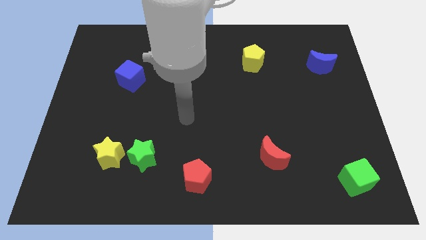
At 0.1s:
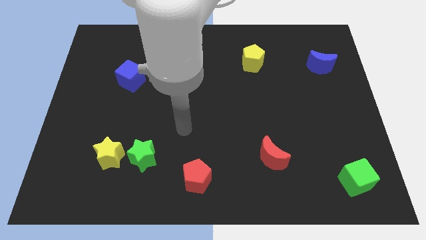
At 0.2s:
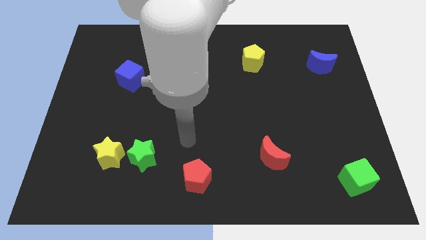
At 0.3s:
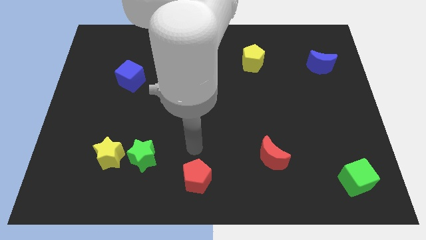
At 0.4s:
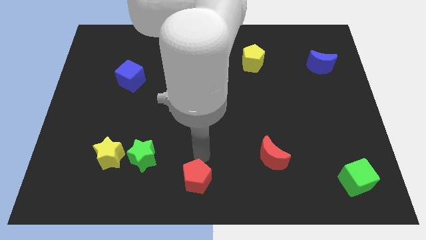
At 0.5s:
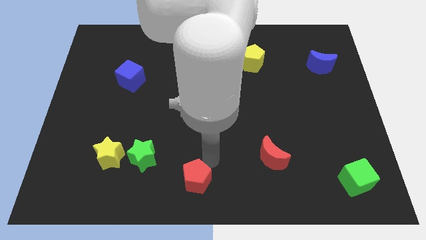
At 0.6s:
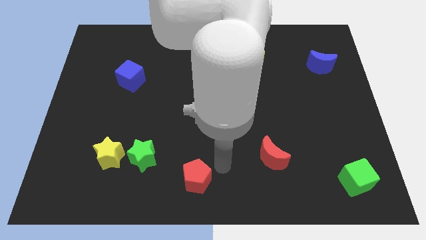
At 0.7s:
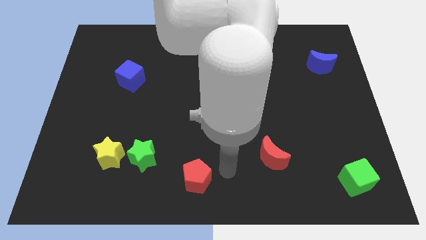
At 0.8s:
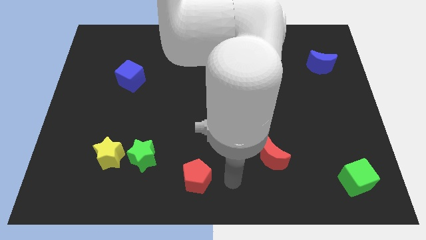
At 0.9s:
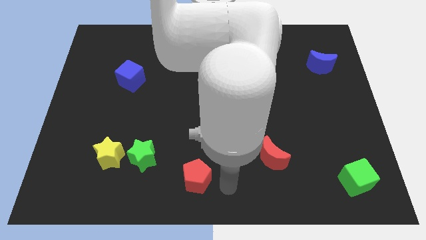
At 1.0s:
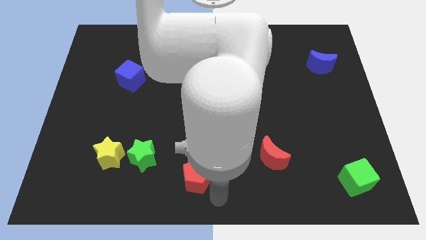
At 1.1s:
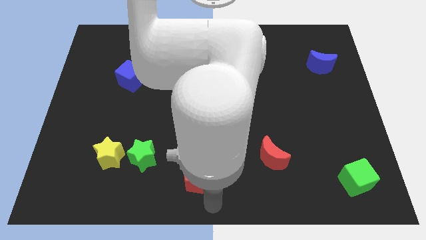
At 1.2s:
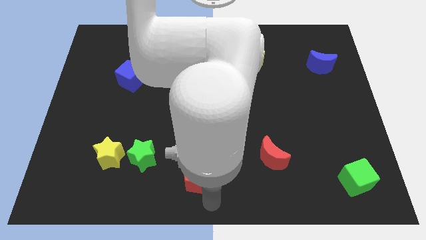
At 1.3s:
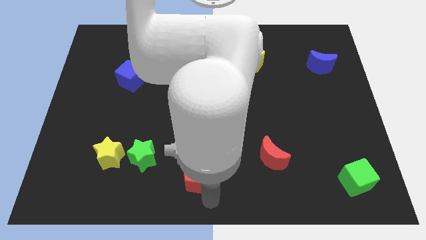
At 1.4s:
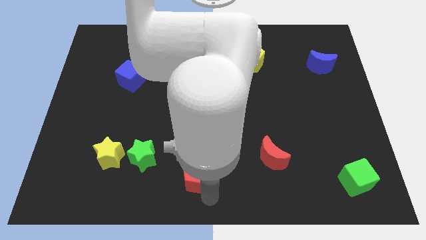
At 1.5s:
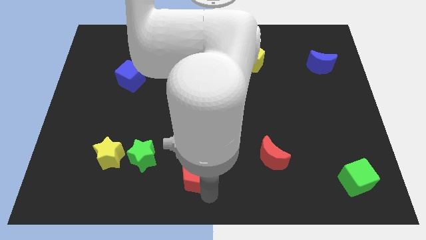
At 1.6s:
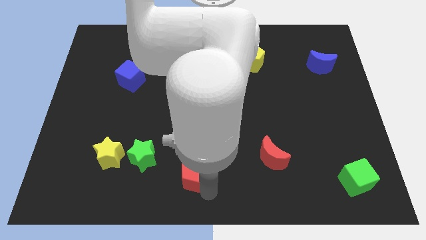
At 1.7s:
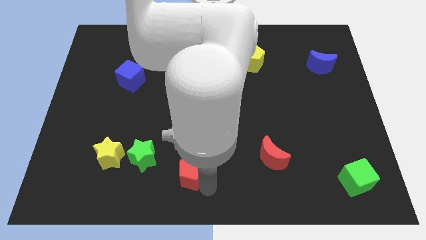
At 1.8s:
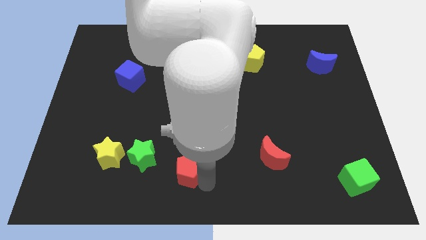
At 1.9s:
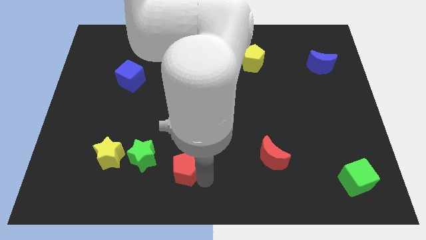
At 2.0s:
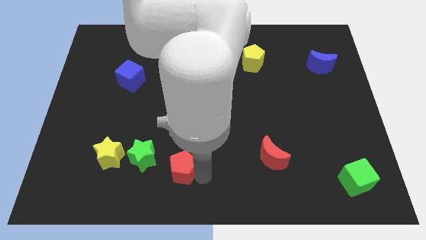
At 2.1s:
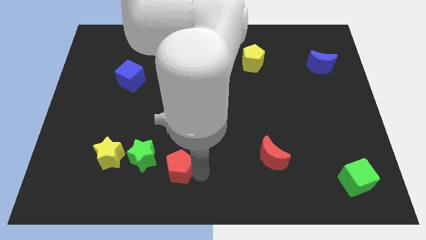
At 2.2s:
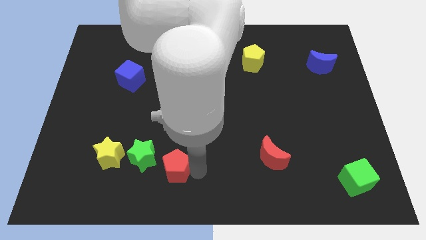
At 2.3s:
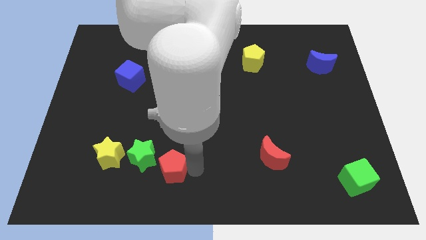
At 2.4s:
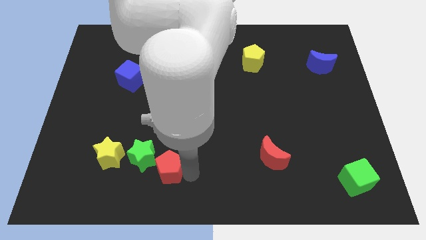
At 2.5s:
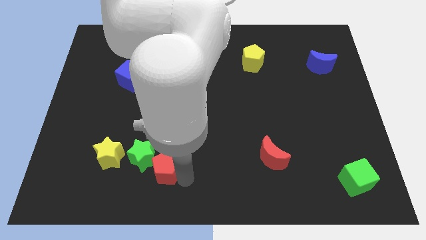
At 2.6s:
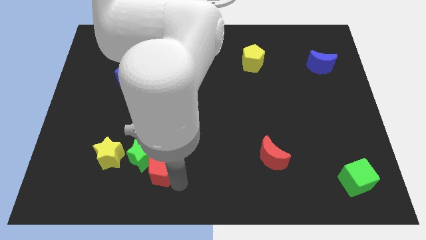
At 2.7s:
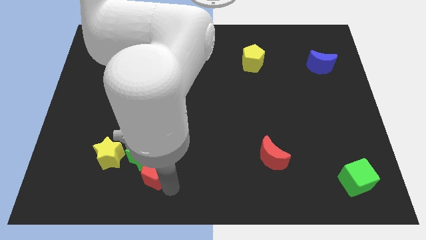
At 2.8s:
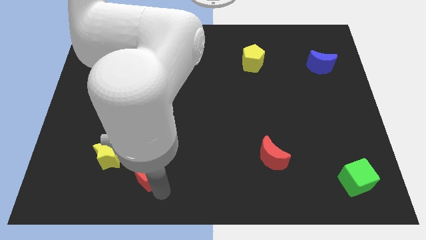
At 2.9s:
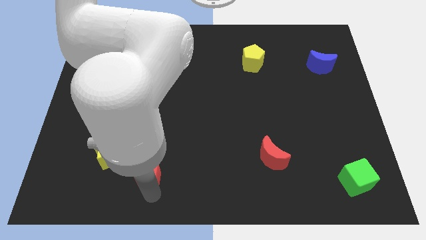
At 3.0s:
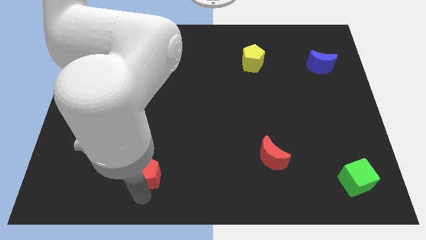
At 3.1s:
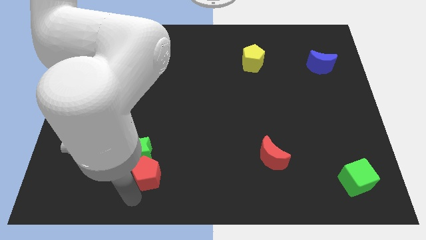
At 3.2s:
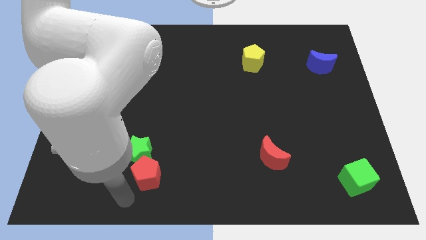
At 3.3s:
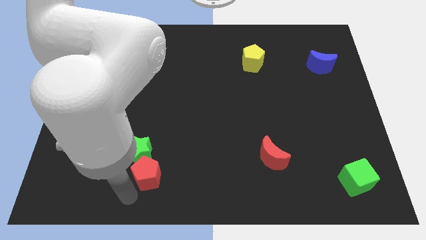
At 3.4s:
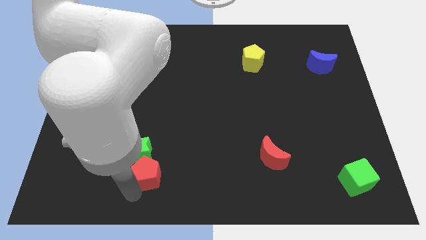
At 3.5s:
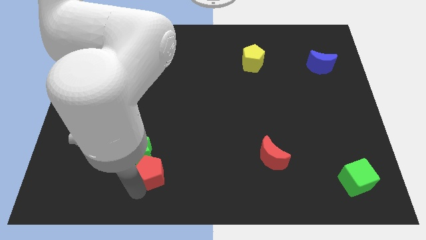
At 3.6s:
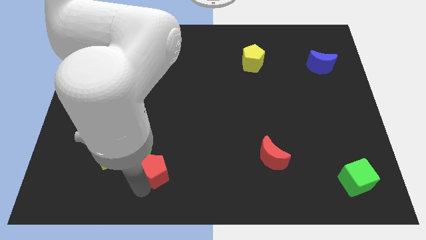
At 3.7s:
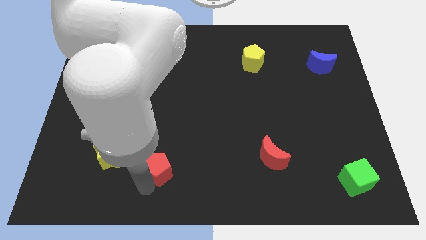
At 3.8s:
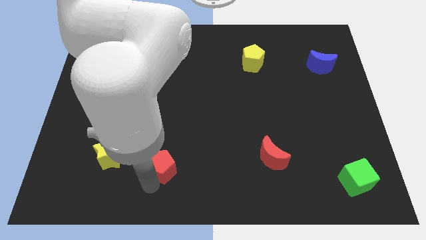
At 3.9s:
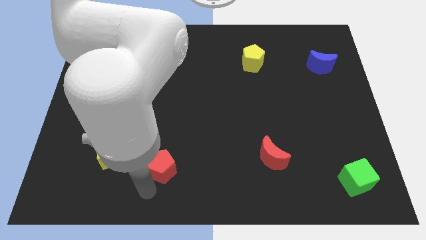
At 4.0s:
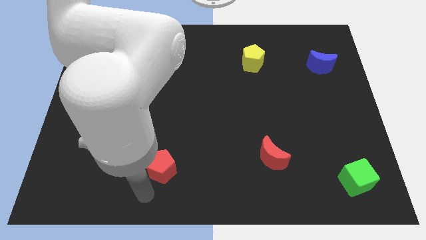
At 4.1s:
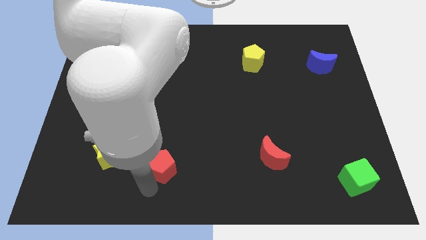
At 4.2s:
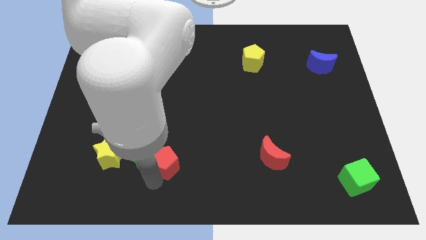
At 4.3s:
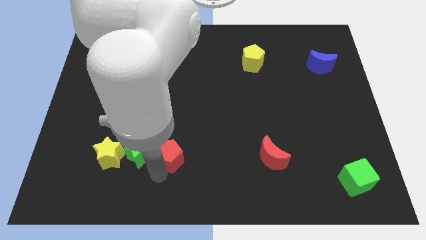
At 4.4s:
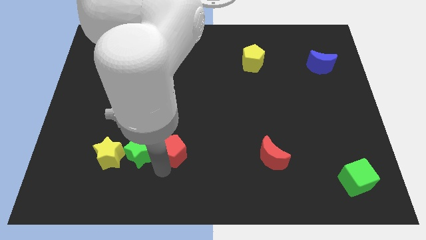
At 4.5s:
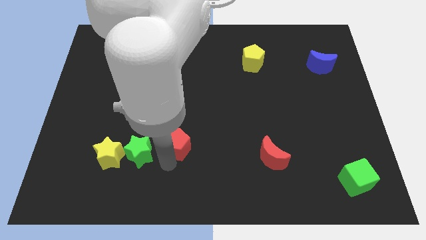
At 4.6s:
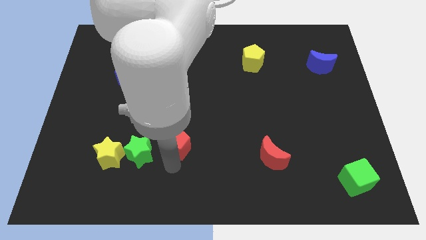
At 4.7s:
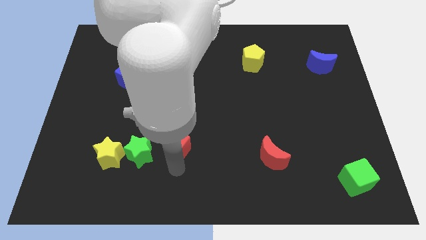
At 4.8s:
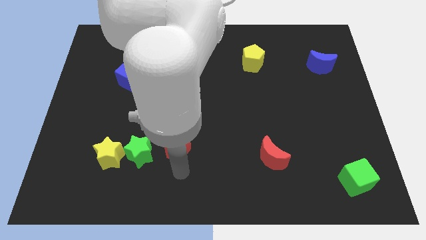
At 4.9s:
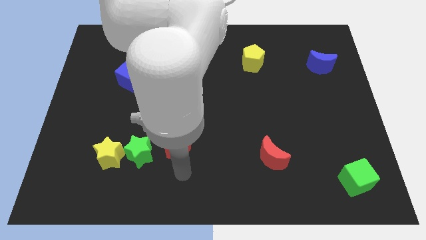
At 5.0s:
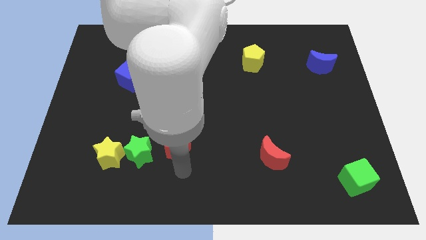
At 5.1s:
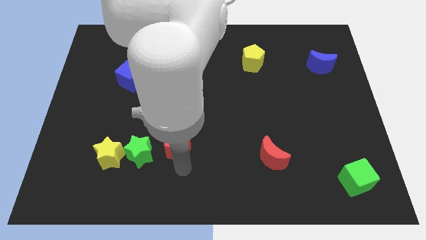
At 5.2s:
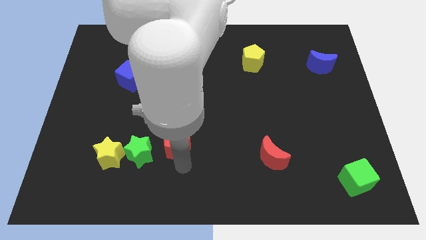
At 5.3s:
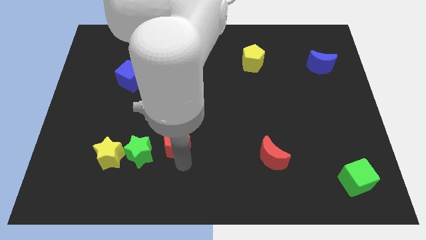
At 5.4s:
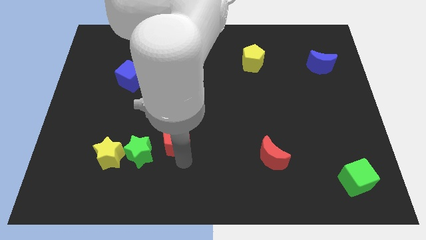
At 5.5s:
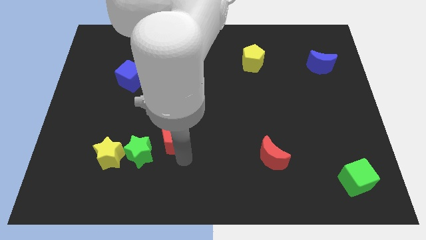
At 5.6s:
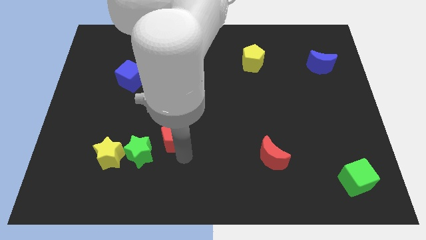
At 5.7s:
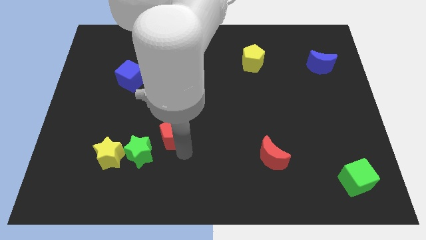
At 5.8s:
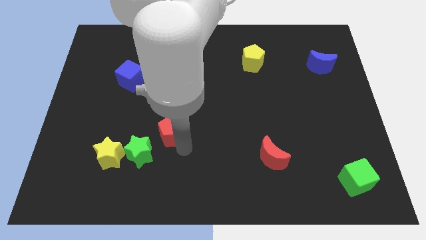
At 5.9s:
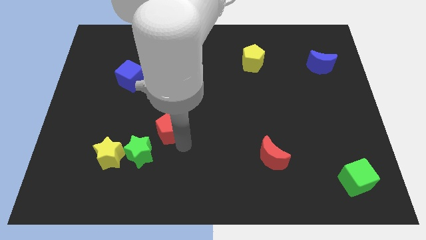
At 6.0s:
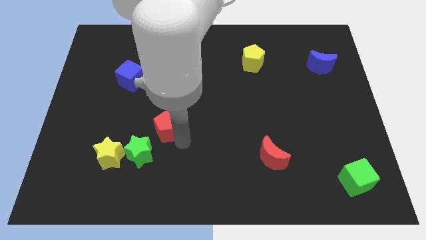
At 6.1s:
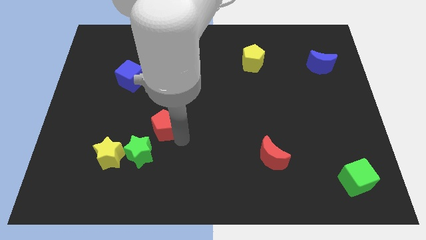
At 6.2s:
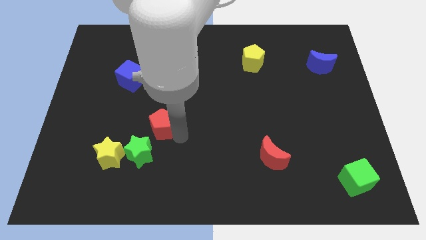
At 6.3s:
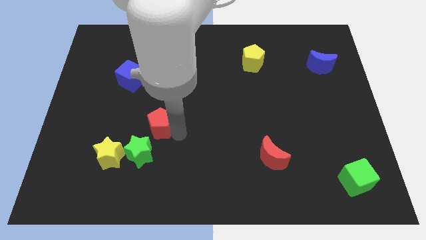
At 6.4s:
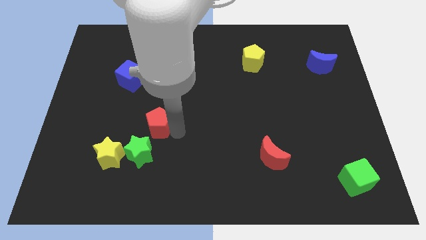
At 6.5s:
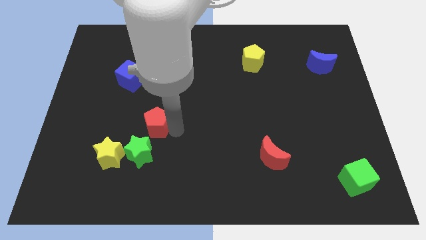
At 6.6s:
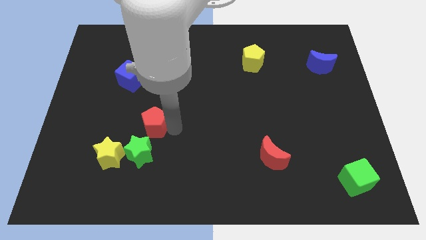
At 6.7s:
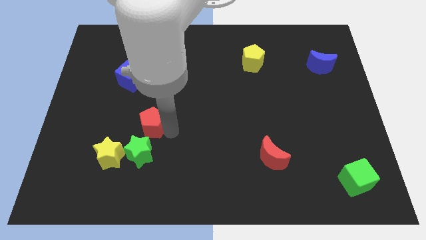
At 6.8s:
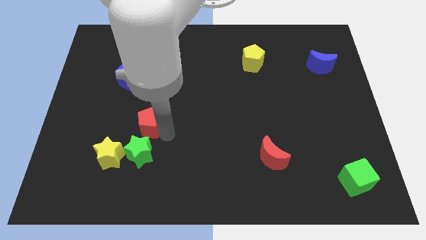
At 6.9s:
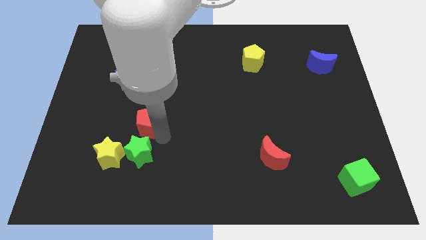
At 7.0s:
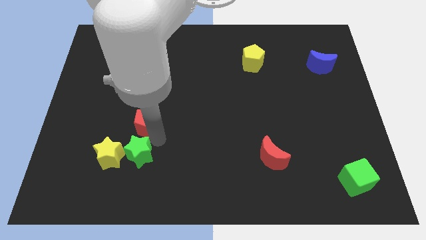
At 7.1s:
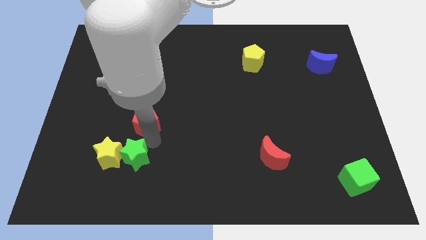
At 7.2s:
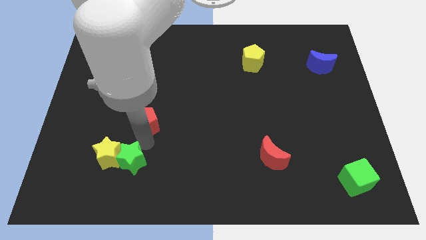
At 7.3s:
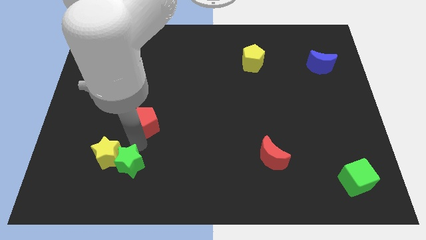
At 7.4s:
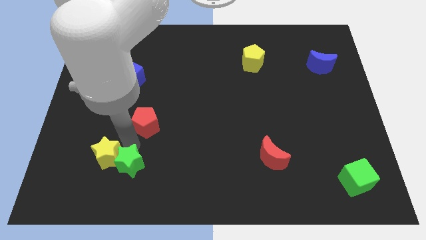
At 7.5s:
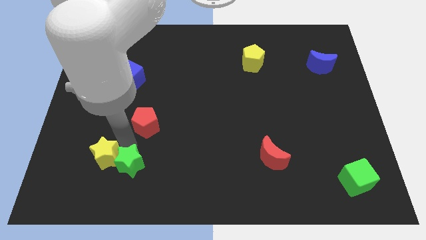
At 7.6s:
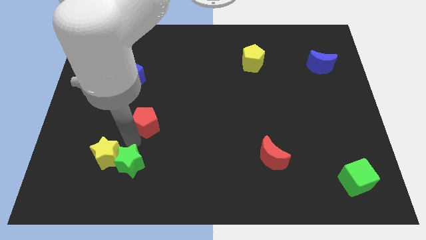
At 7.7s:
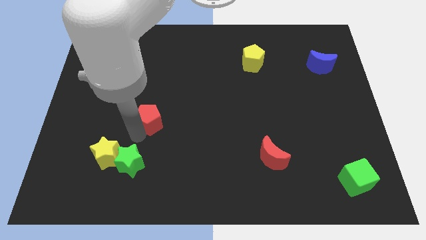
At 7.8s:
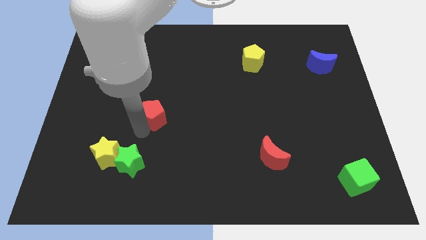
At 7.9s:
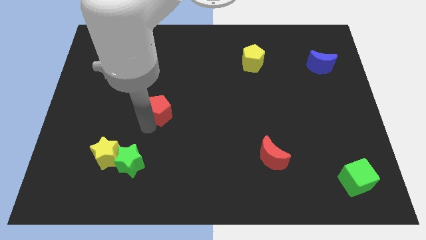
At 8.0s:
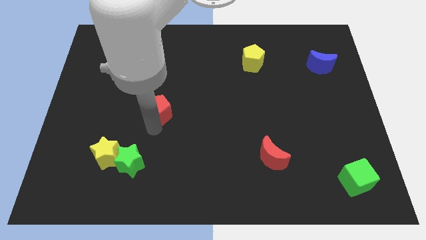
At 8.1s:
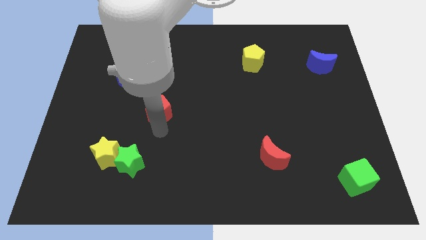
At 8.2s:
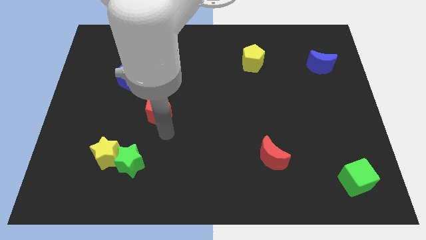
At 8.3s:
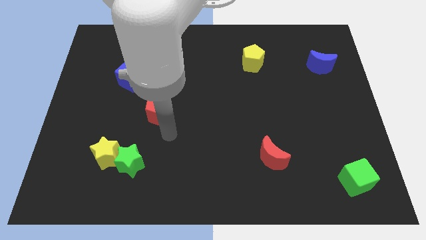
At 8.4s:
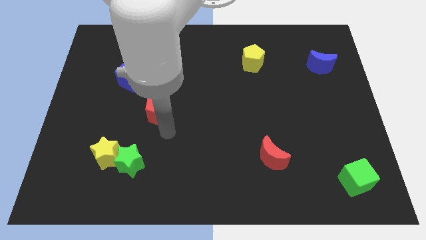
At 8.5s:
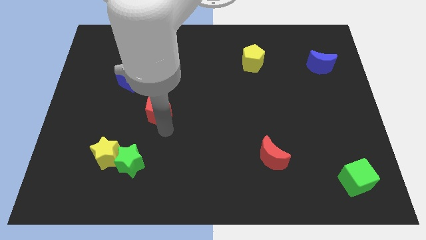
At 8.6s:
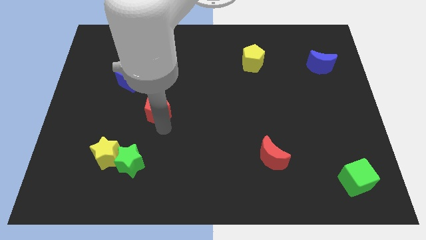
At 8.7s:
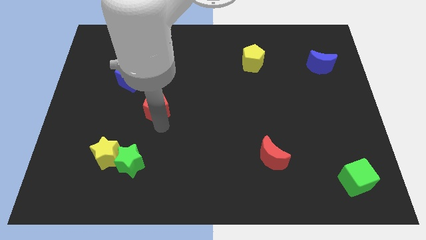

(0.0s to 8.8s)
put the red pentagon diagonally down and to the right of the blue cube
